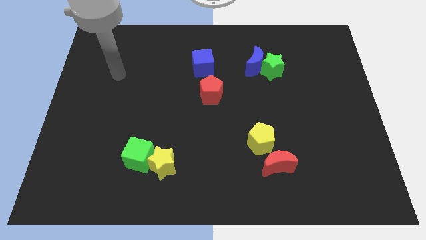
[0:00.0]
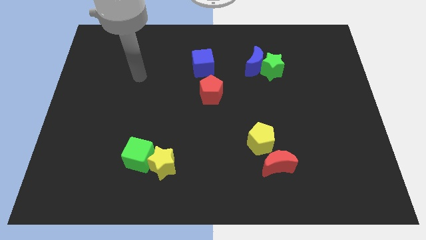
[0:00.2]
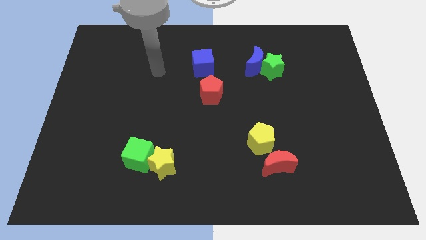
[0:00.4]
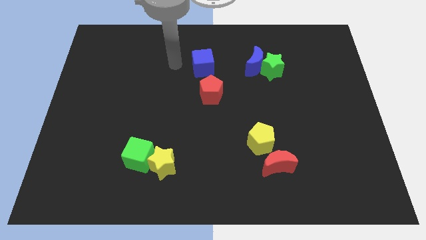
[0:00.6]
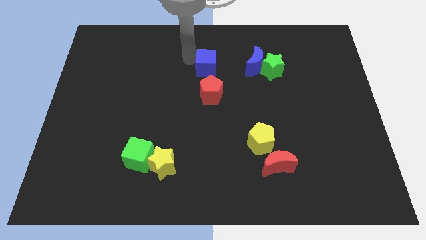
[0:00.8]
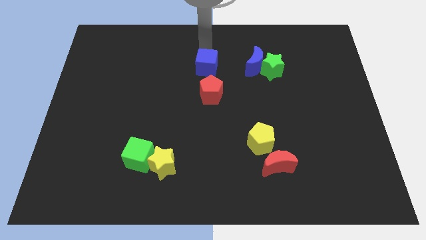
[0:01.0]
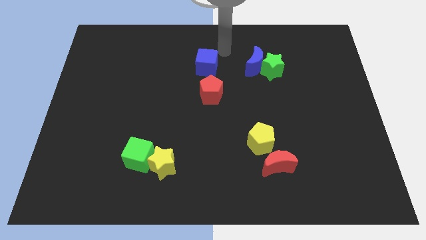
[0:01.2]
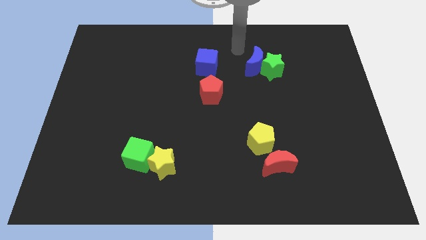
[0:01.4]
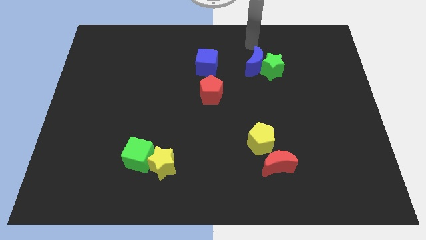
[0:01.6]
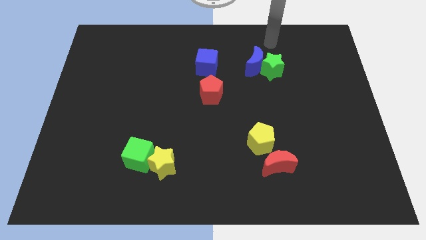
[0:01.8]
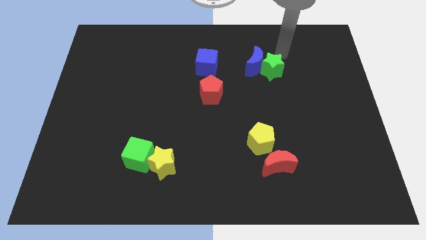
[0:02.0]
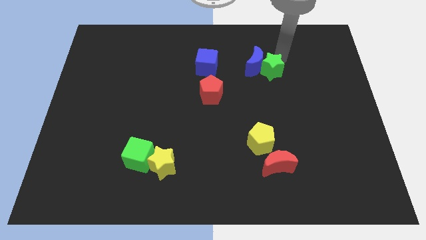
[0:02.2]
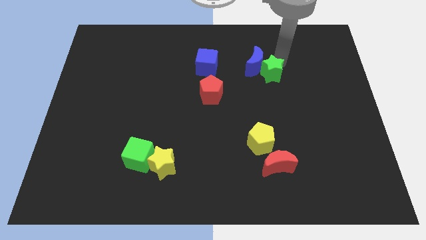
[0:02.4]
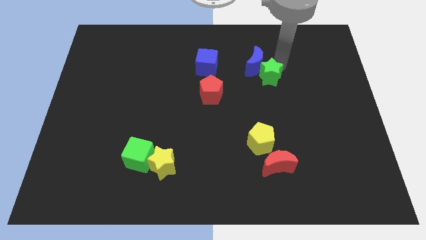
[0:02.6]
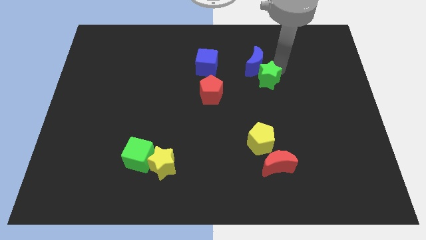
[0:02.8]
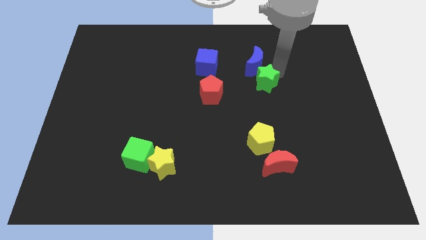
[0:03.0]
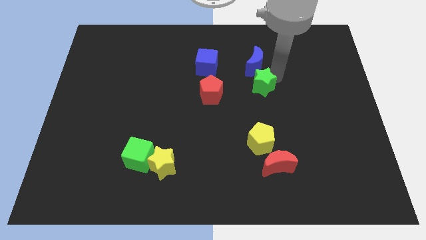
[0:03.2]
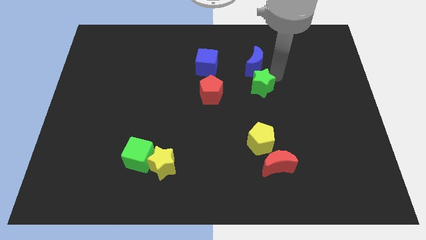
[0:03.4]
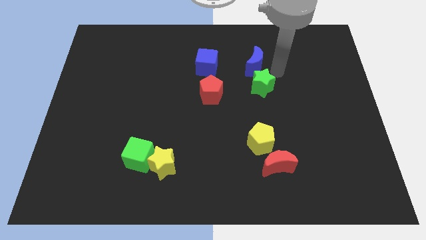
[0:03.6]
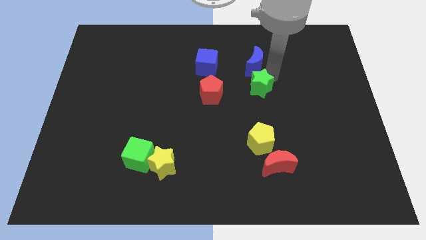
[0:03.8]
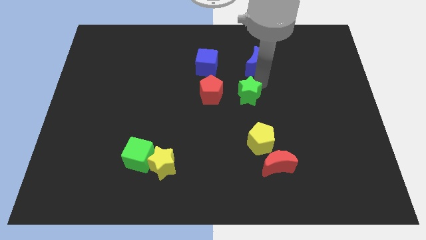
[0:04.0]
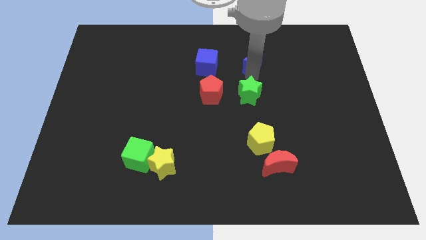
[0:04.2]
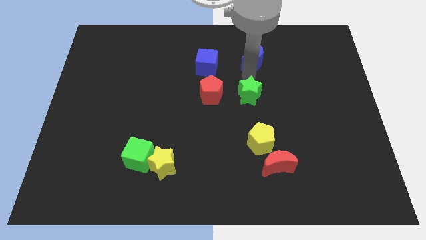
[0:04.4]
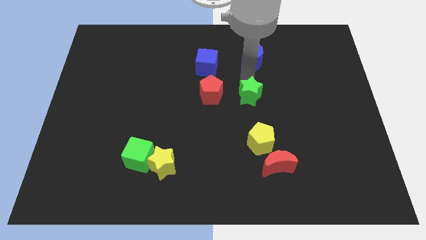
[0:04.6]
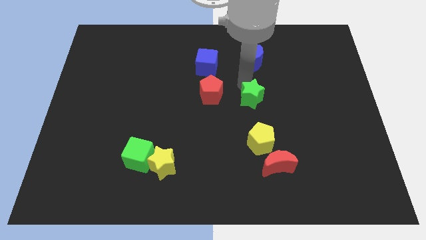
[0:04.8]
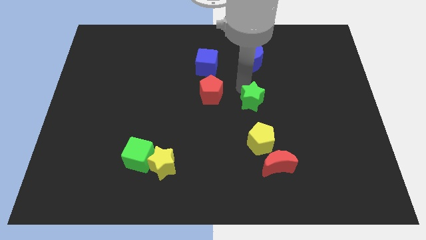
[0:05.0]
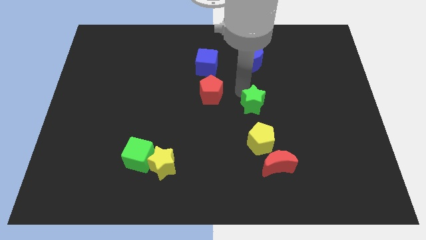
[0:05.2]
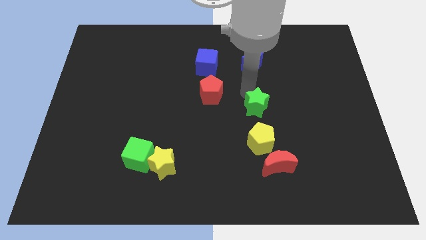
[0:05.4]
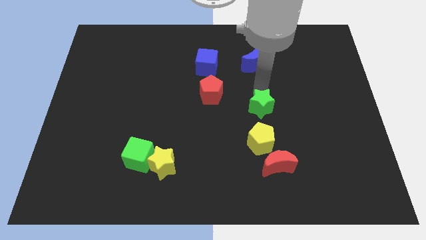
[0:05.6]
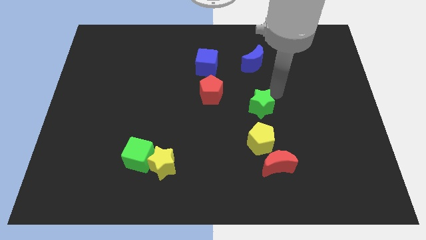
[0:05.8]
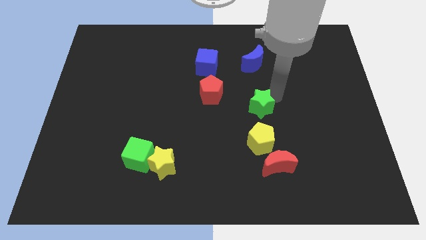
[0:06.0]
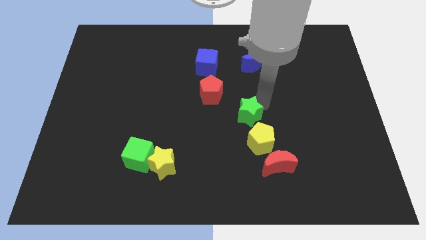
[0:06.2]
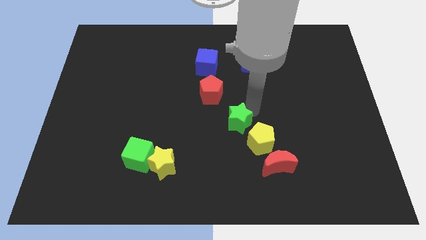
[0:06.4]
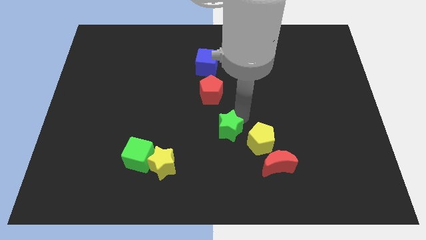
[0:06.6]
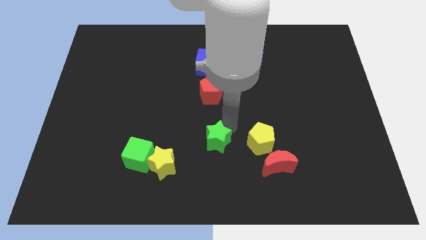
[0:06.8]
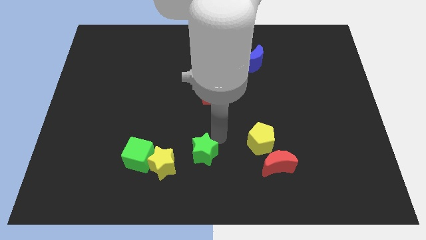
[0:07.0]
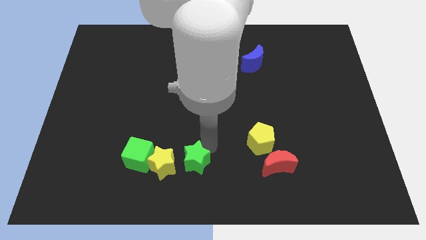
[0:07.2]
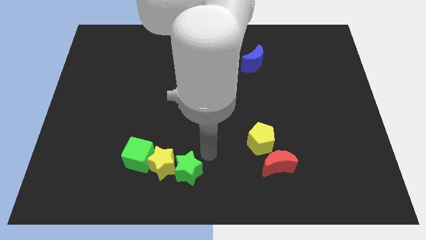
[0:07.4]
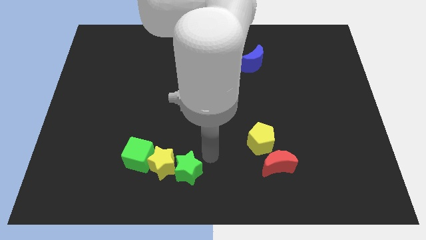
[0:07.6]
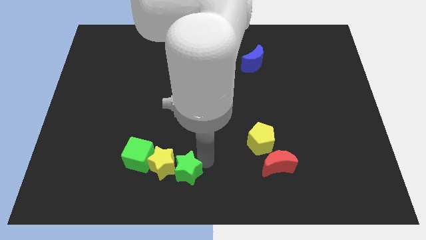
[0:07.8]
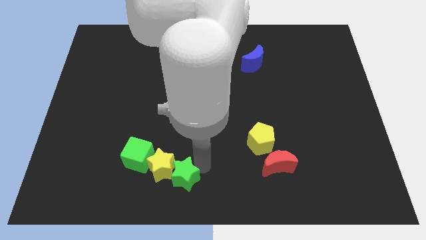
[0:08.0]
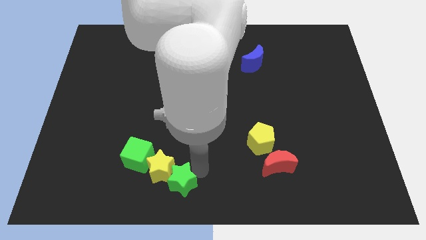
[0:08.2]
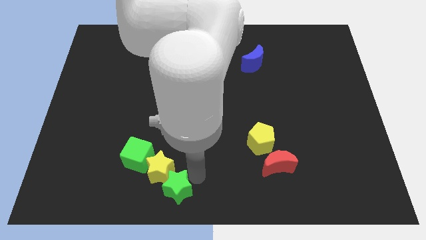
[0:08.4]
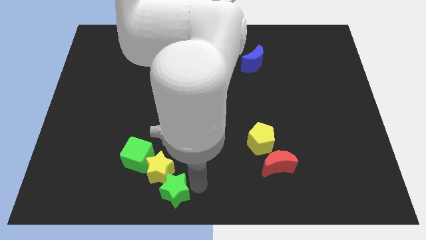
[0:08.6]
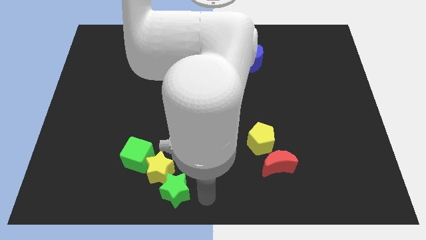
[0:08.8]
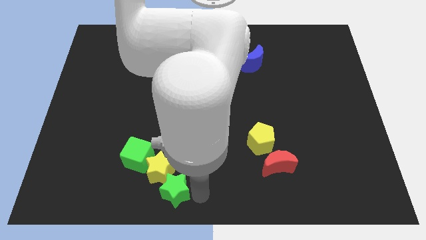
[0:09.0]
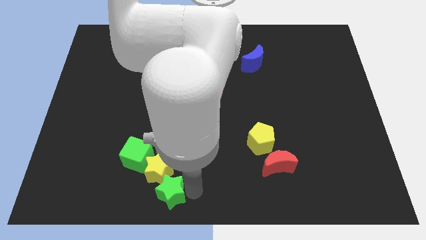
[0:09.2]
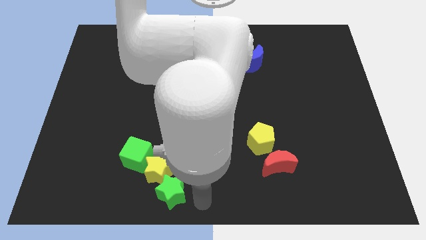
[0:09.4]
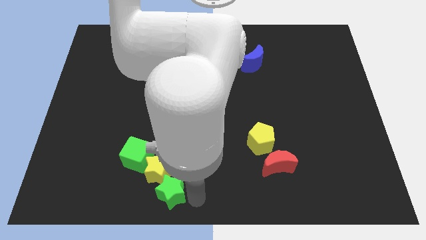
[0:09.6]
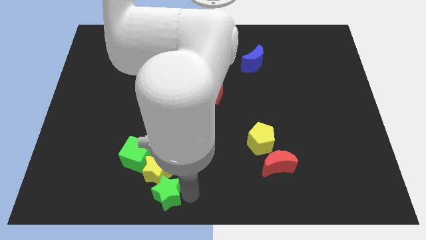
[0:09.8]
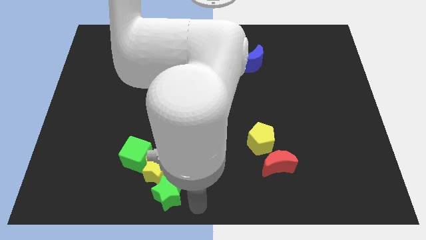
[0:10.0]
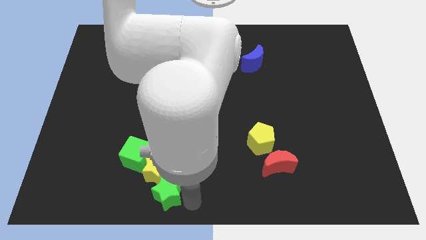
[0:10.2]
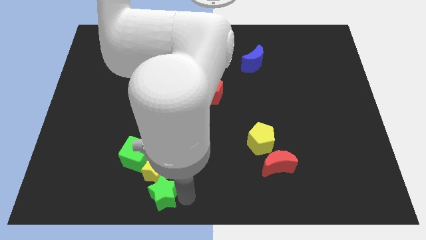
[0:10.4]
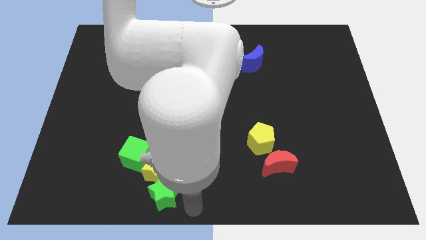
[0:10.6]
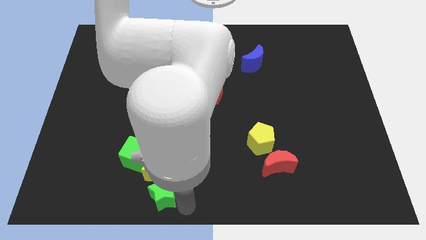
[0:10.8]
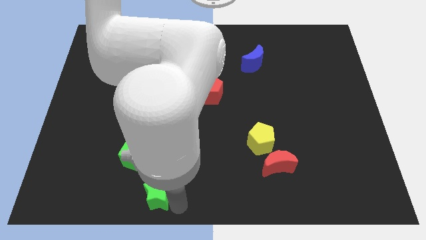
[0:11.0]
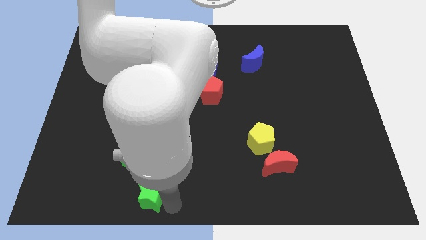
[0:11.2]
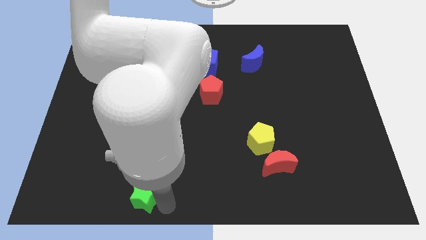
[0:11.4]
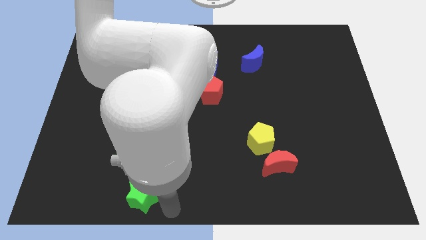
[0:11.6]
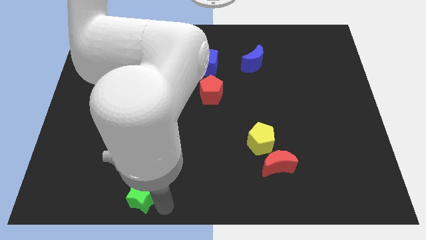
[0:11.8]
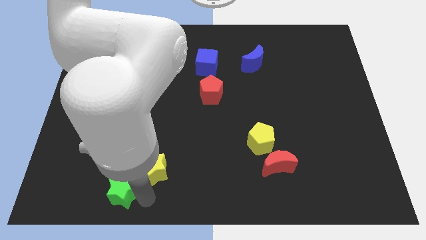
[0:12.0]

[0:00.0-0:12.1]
move the green star to the bottom left side of the green cube

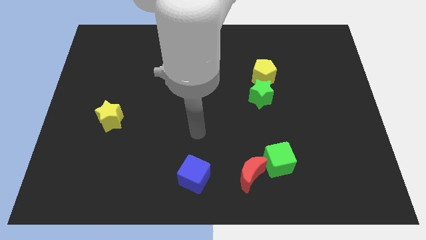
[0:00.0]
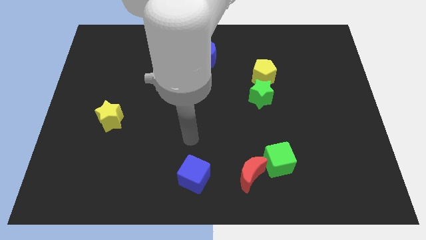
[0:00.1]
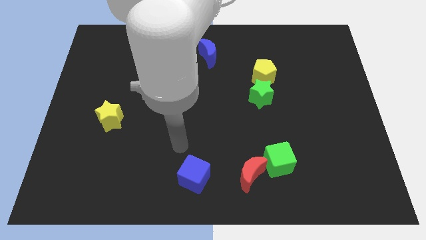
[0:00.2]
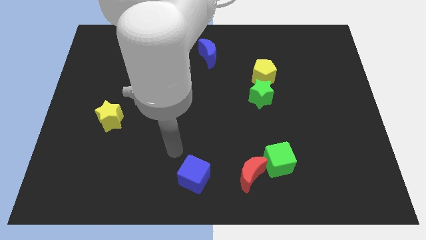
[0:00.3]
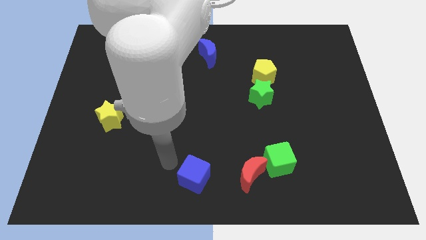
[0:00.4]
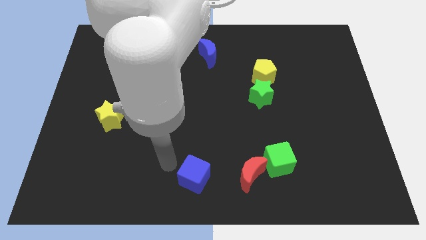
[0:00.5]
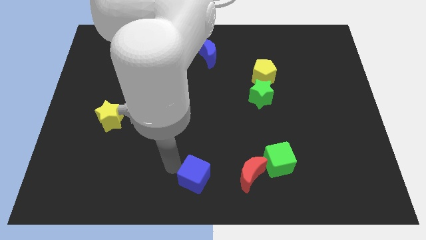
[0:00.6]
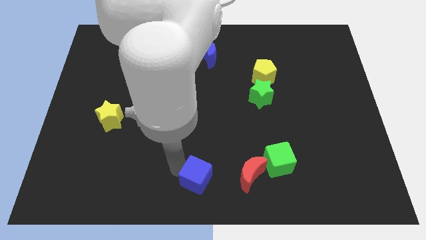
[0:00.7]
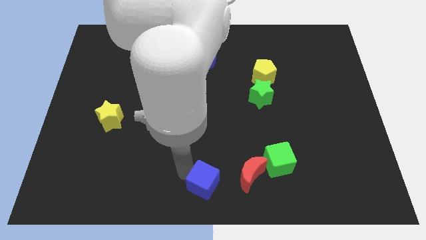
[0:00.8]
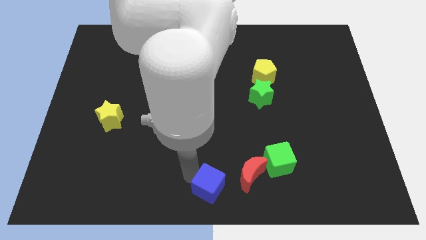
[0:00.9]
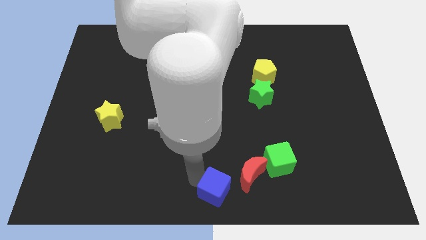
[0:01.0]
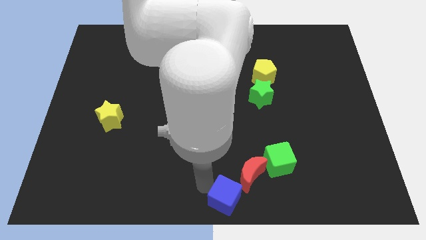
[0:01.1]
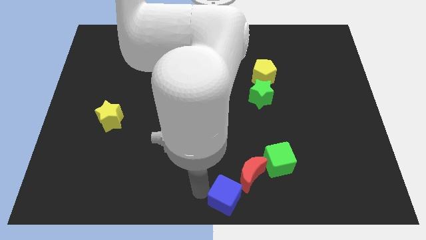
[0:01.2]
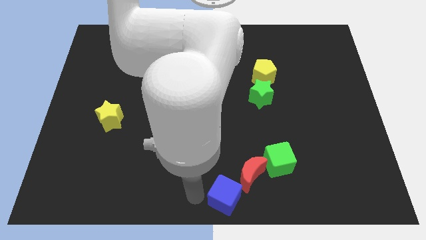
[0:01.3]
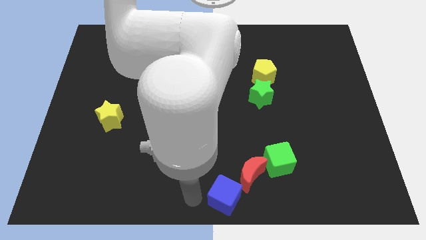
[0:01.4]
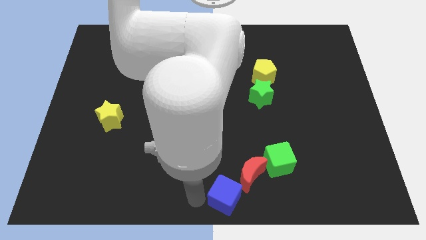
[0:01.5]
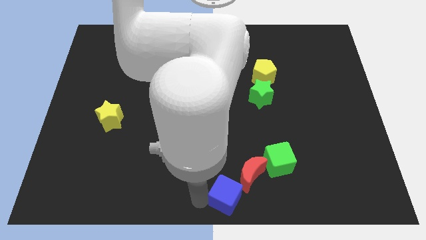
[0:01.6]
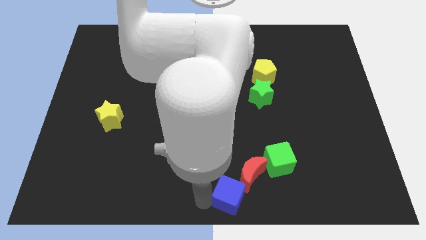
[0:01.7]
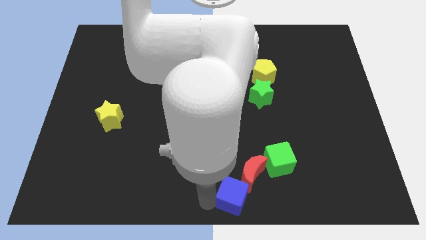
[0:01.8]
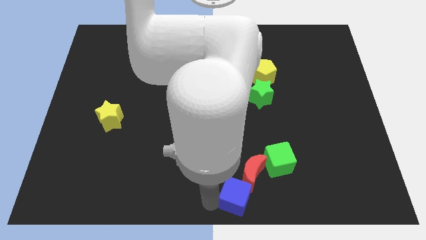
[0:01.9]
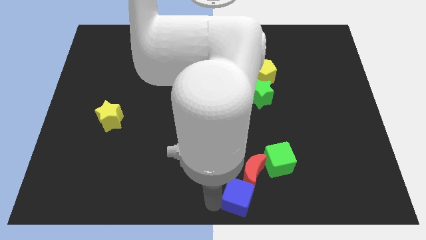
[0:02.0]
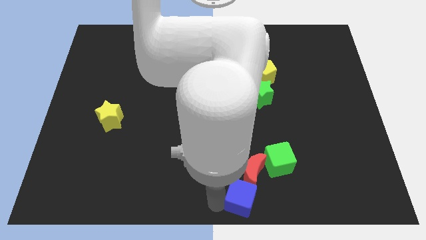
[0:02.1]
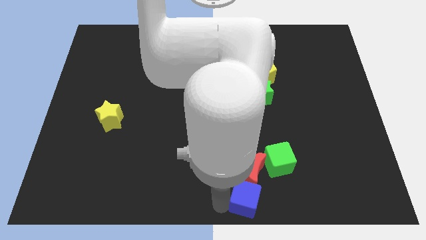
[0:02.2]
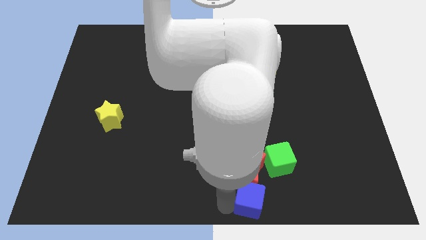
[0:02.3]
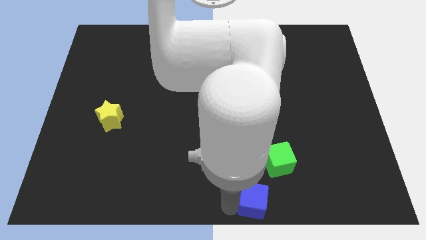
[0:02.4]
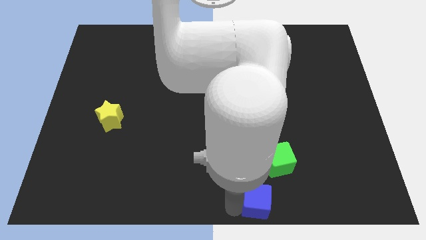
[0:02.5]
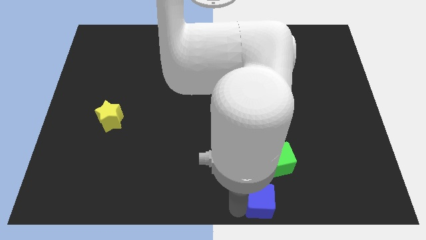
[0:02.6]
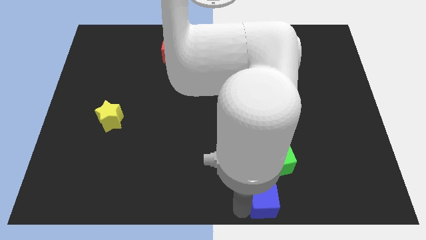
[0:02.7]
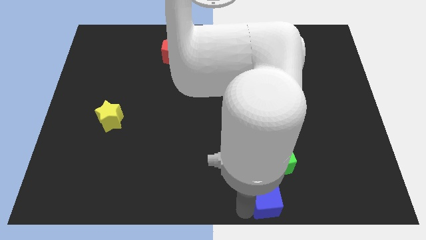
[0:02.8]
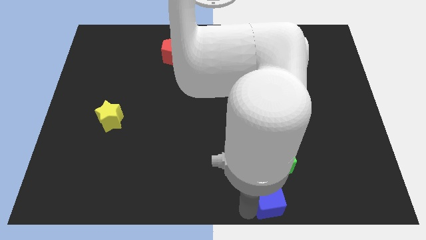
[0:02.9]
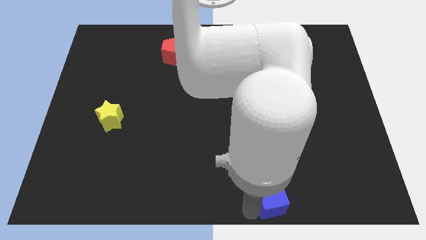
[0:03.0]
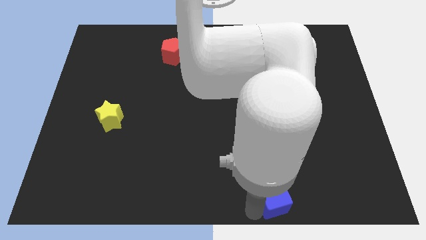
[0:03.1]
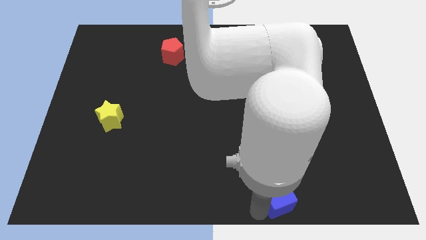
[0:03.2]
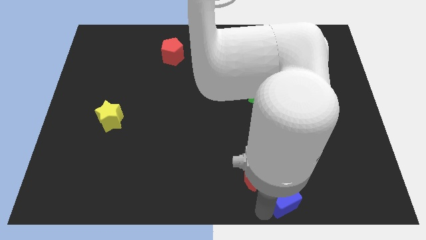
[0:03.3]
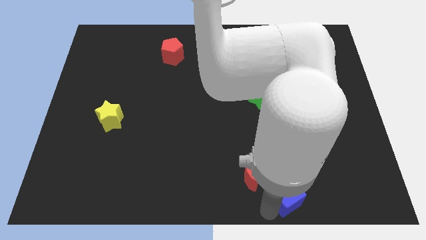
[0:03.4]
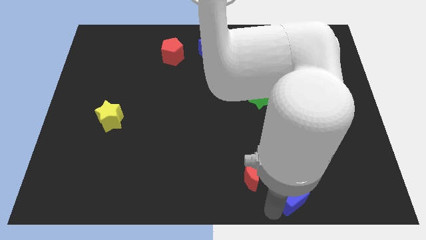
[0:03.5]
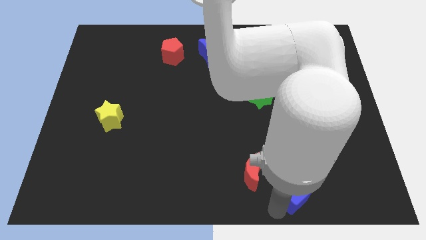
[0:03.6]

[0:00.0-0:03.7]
move the blue cube to the right of the red moon
